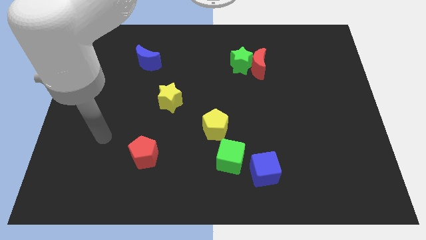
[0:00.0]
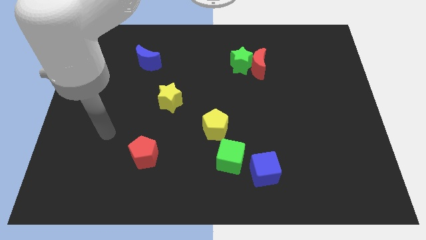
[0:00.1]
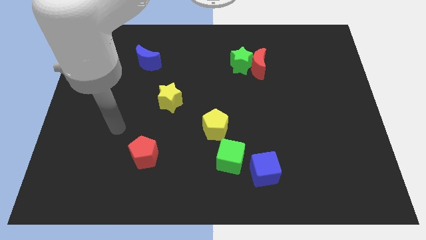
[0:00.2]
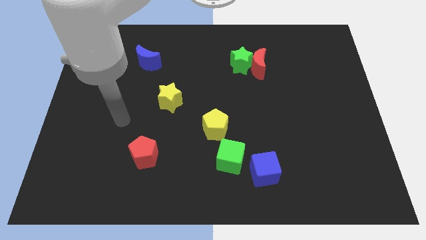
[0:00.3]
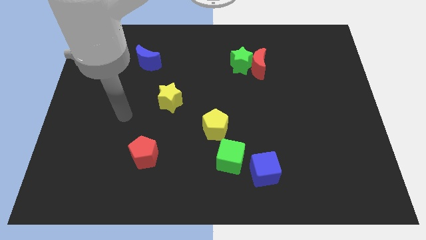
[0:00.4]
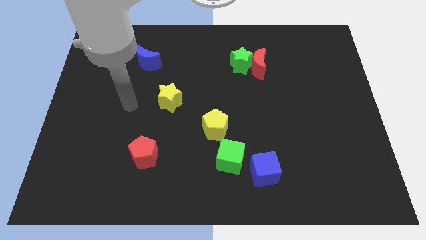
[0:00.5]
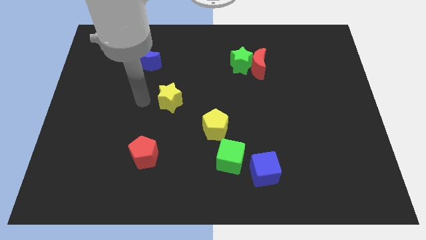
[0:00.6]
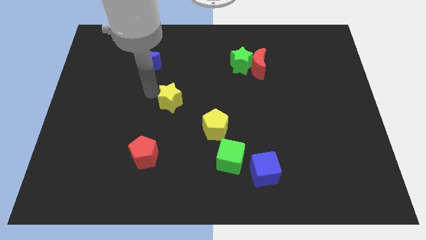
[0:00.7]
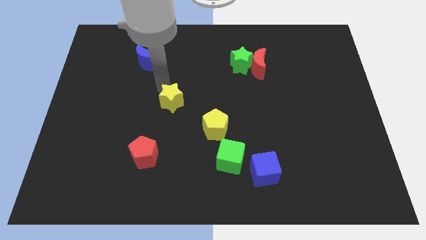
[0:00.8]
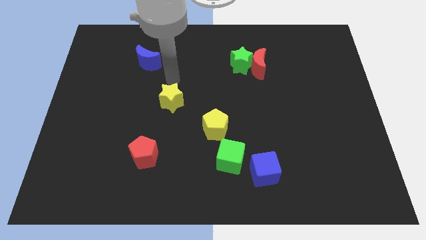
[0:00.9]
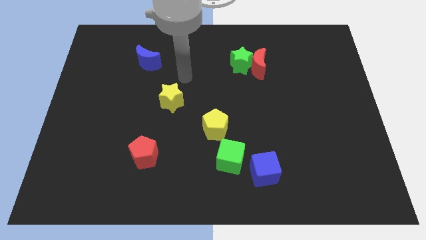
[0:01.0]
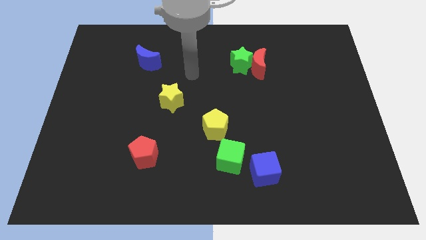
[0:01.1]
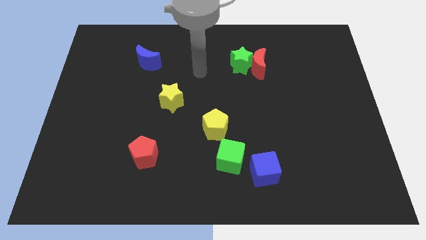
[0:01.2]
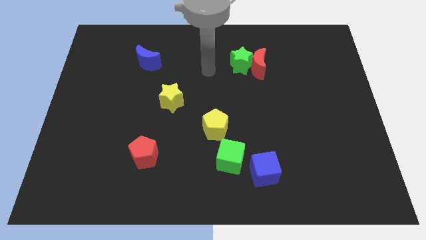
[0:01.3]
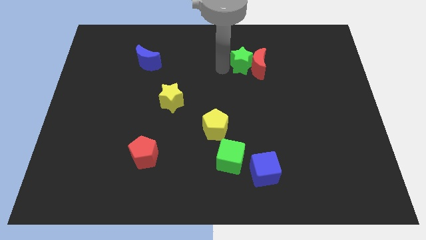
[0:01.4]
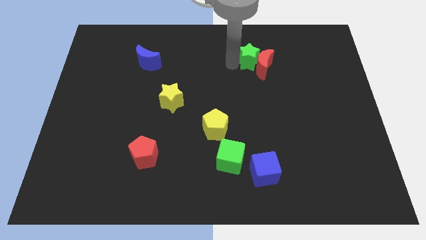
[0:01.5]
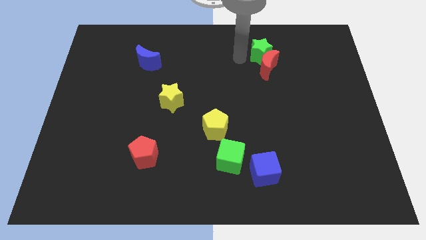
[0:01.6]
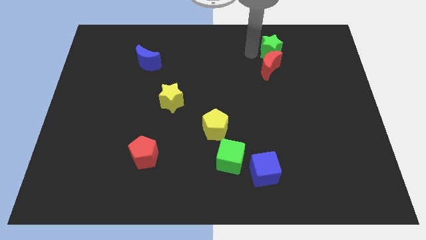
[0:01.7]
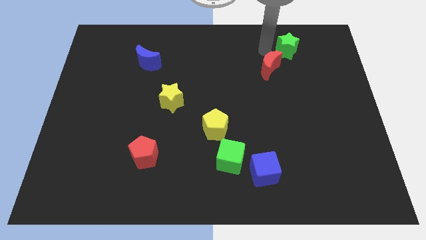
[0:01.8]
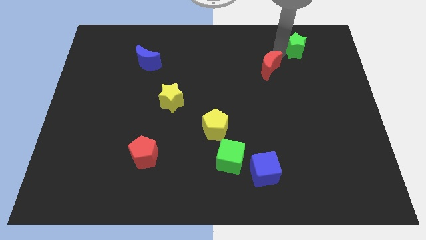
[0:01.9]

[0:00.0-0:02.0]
move the red moon away from the green star

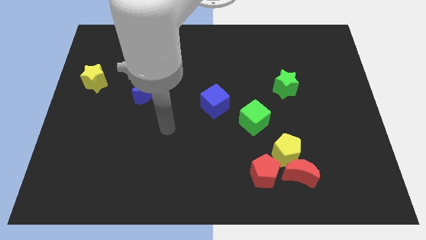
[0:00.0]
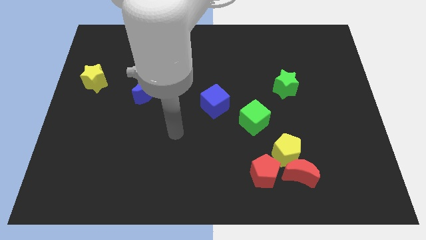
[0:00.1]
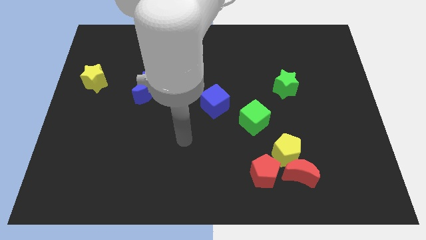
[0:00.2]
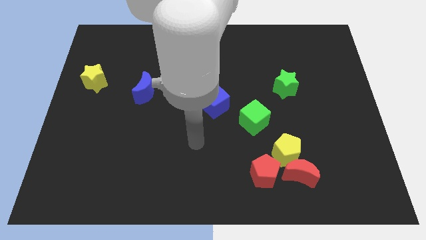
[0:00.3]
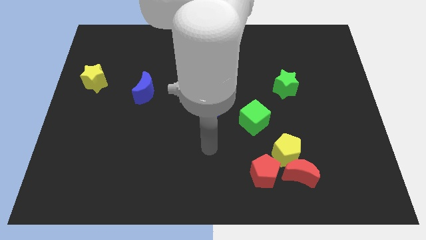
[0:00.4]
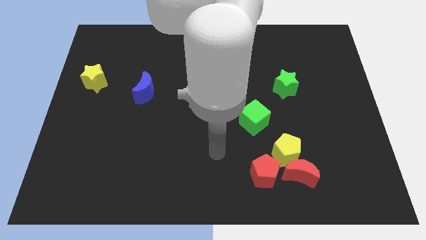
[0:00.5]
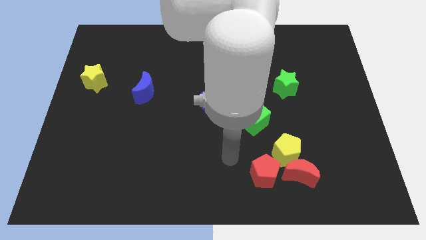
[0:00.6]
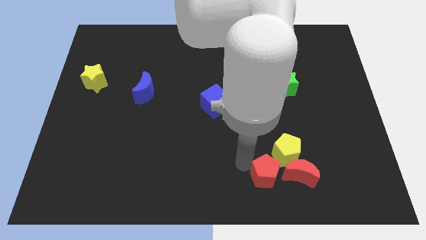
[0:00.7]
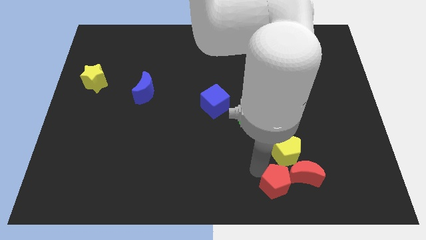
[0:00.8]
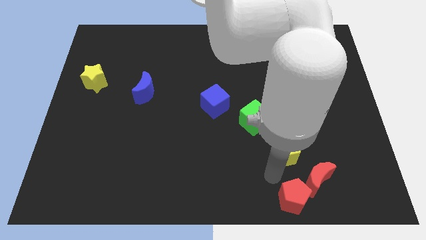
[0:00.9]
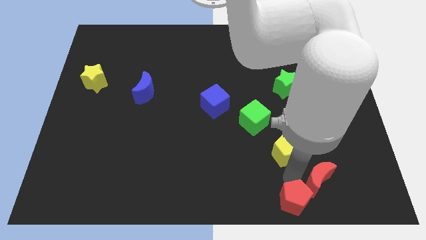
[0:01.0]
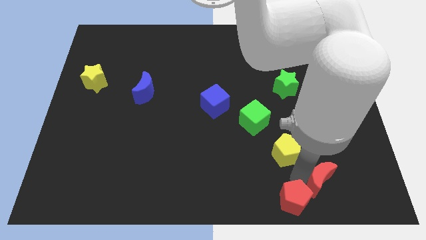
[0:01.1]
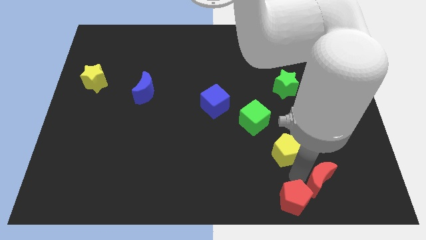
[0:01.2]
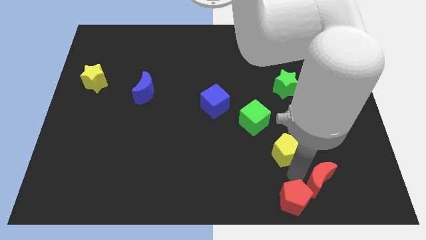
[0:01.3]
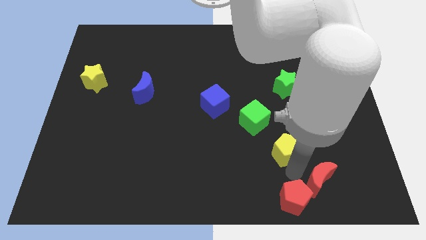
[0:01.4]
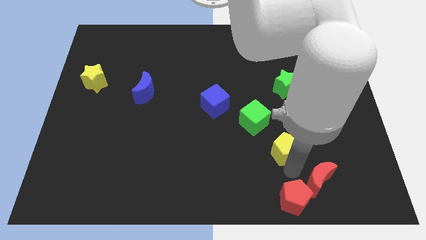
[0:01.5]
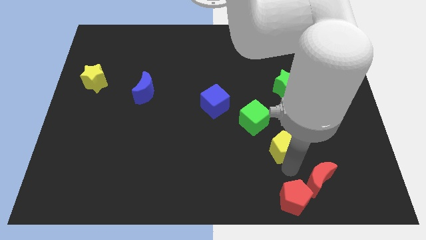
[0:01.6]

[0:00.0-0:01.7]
pull the yellow pentagon apart from the red moon and red pentagon

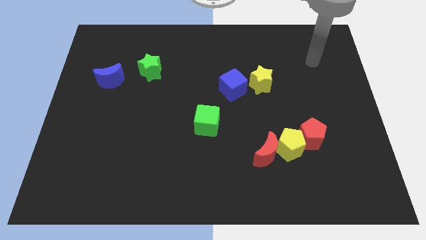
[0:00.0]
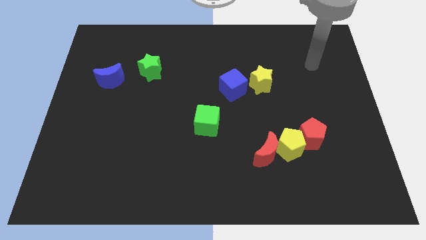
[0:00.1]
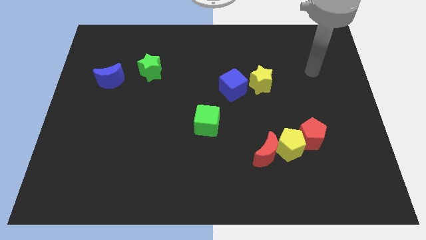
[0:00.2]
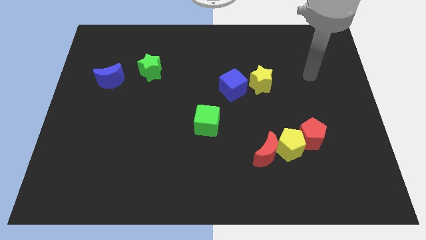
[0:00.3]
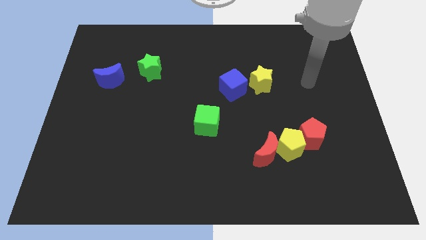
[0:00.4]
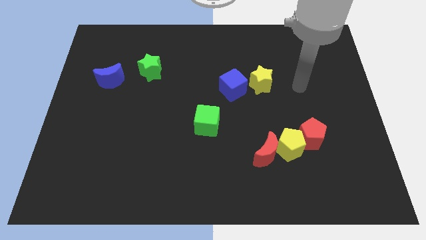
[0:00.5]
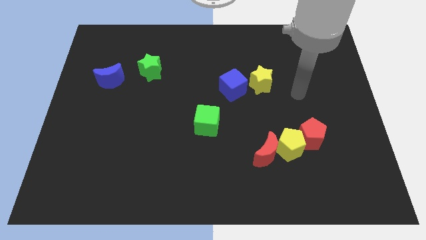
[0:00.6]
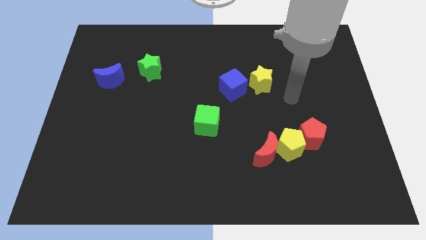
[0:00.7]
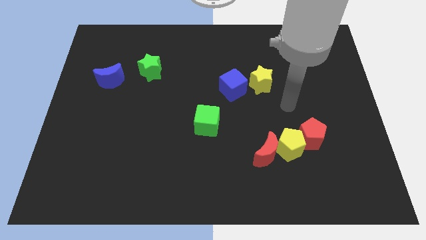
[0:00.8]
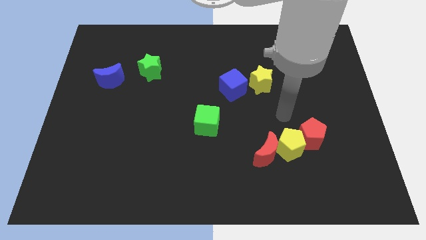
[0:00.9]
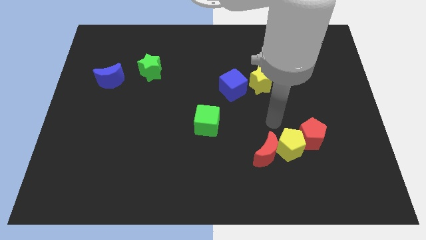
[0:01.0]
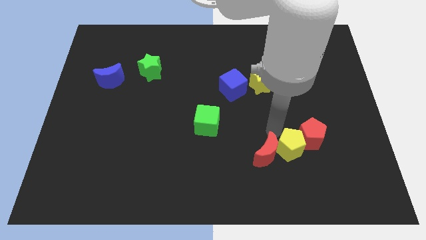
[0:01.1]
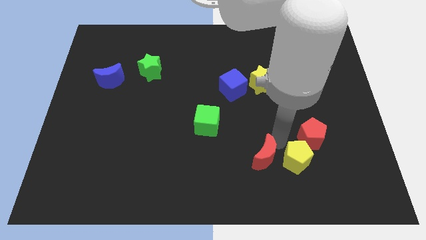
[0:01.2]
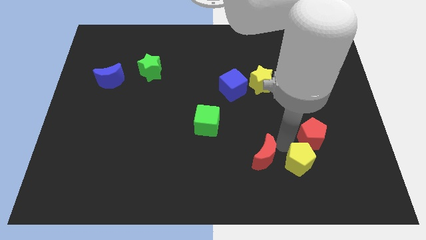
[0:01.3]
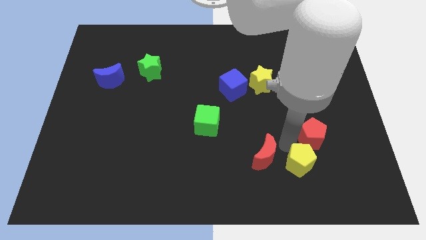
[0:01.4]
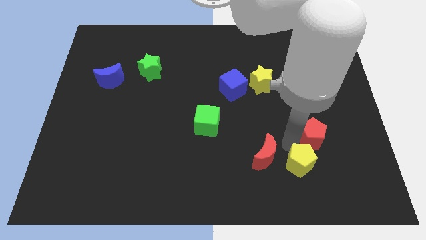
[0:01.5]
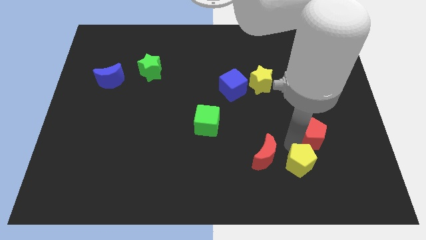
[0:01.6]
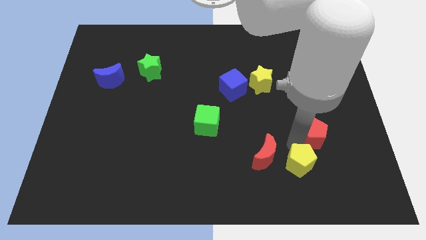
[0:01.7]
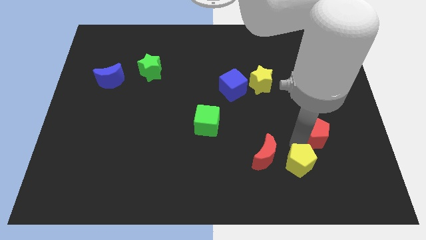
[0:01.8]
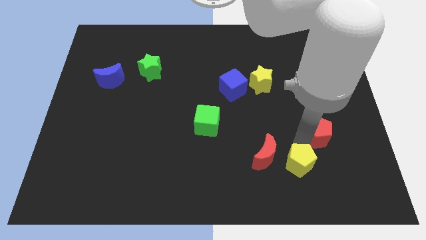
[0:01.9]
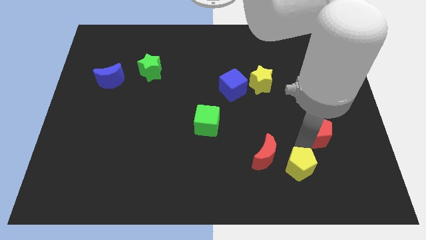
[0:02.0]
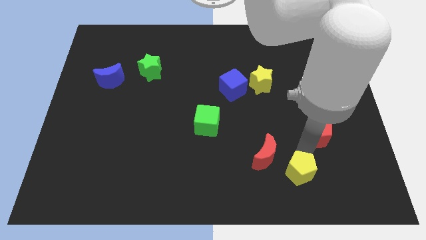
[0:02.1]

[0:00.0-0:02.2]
pull the red pentagon apart from the yellow pentagon

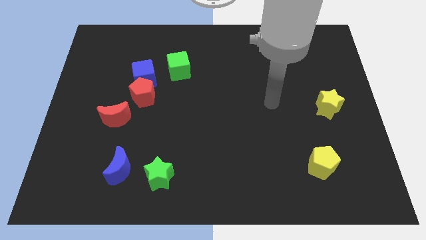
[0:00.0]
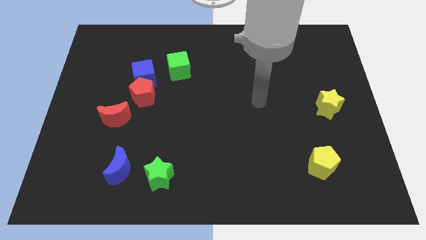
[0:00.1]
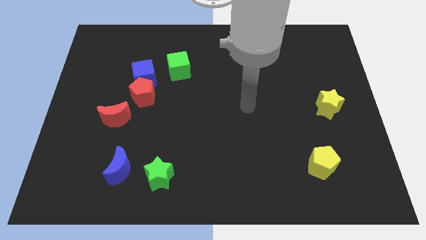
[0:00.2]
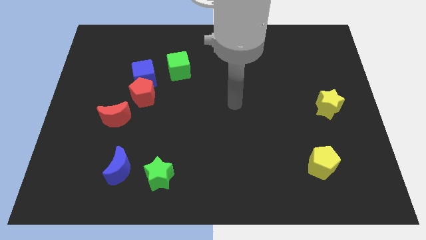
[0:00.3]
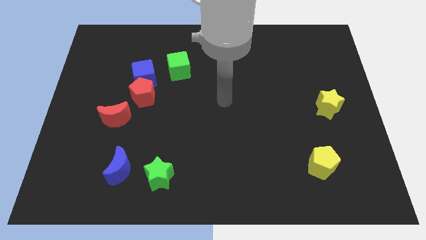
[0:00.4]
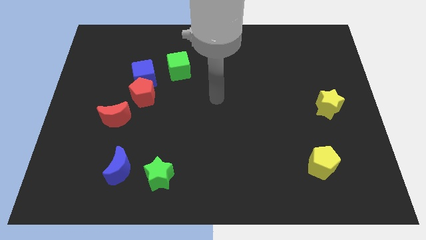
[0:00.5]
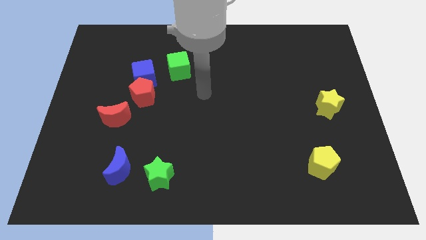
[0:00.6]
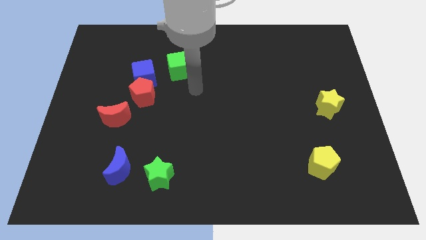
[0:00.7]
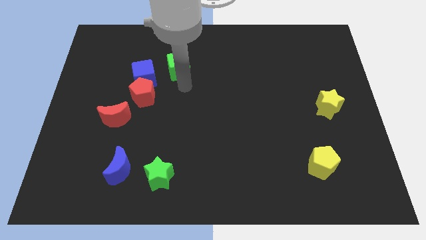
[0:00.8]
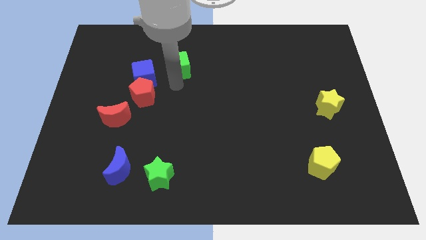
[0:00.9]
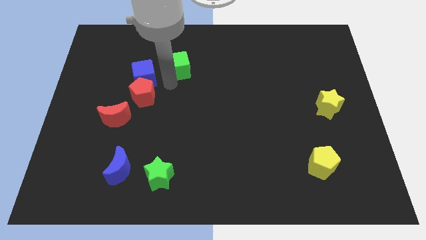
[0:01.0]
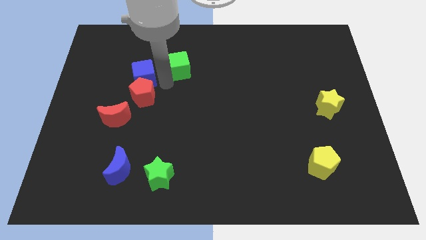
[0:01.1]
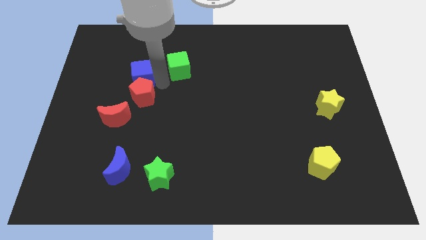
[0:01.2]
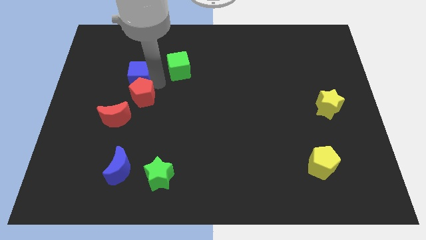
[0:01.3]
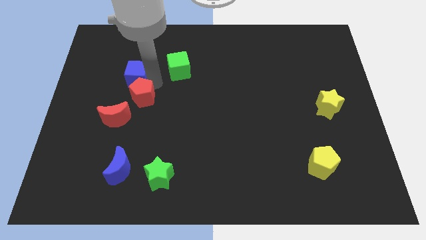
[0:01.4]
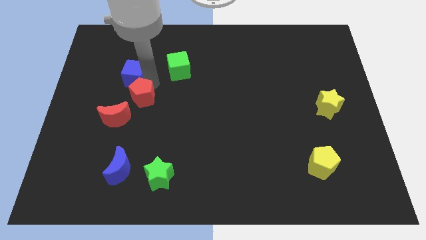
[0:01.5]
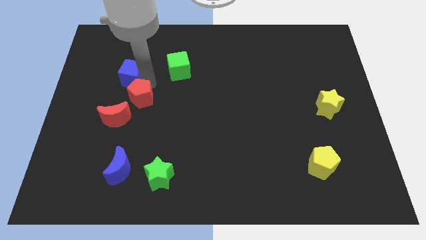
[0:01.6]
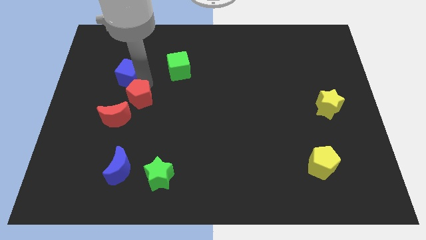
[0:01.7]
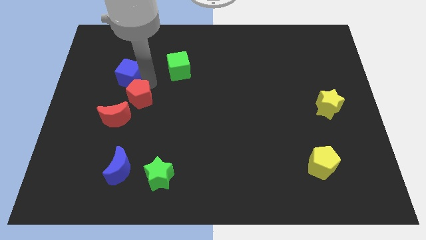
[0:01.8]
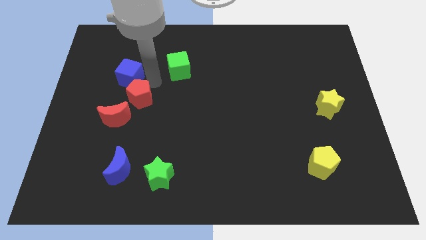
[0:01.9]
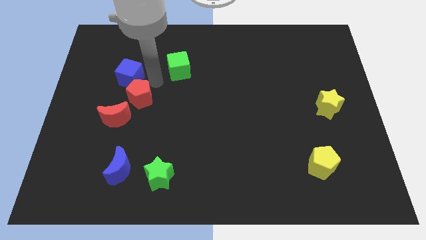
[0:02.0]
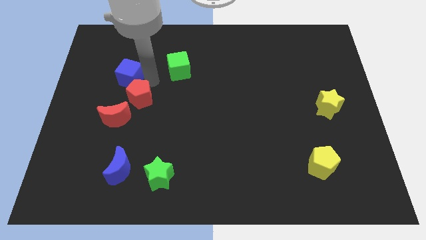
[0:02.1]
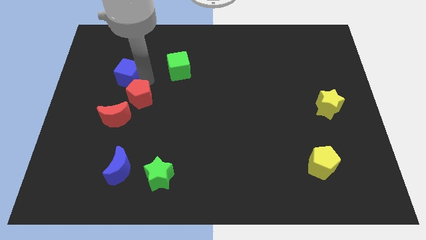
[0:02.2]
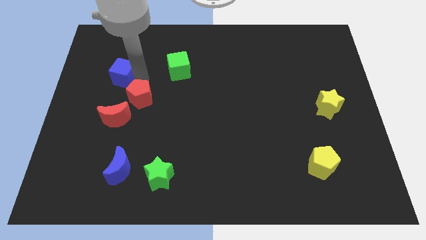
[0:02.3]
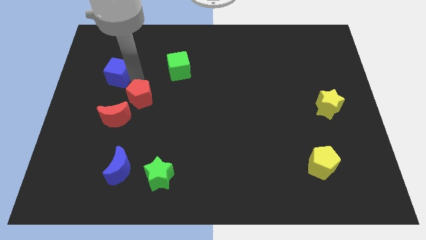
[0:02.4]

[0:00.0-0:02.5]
pull the blue cube apart from the red pentagon and green cube

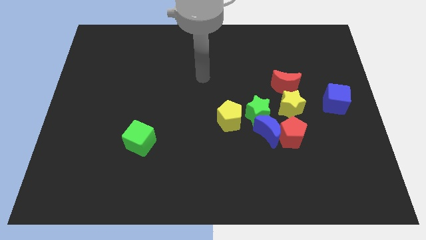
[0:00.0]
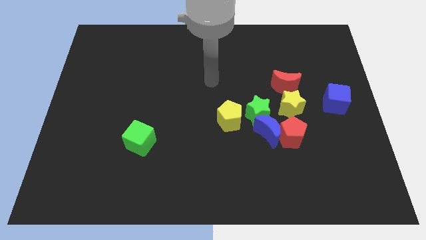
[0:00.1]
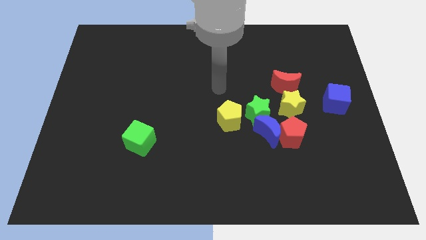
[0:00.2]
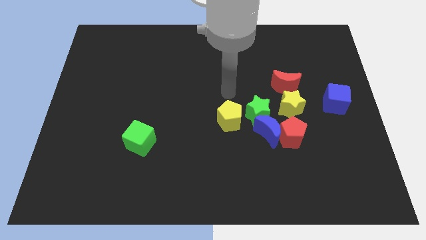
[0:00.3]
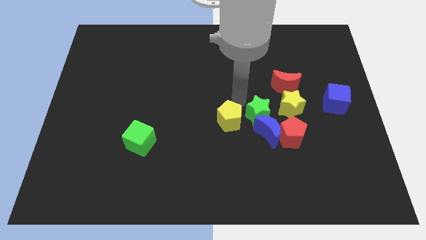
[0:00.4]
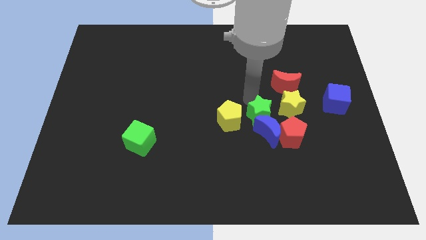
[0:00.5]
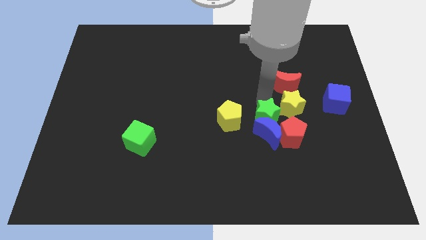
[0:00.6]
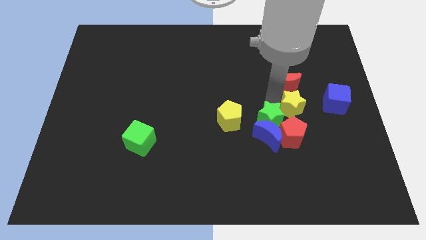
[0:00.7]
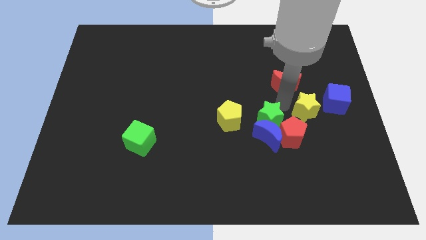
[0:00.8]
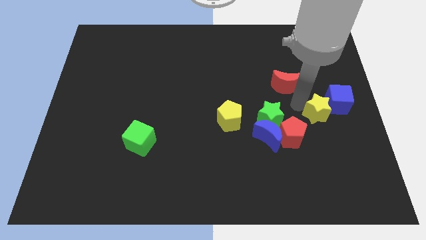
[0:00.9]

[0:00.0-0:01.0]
move the red moon away from the yellow star

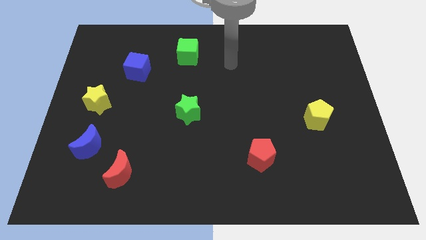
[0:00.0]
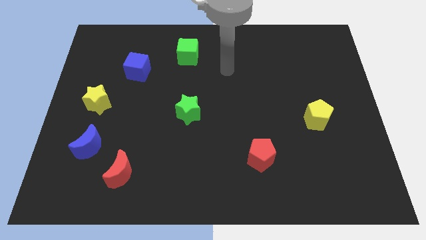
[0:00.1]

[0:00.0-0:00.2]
move the red moon away from the blue moon
